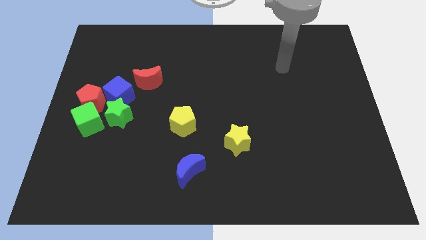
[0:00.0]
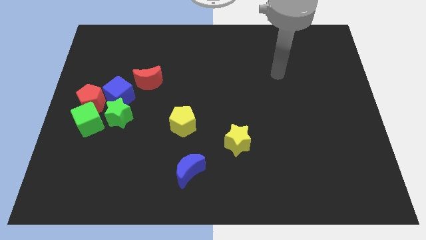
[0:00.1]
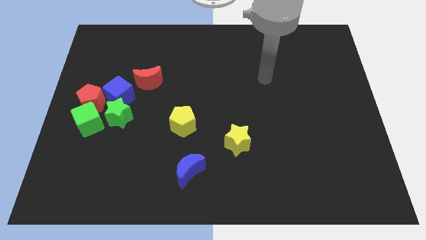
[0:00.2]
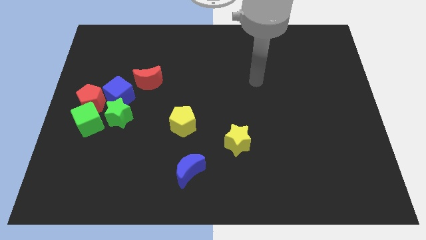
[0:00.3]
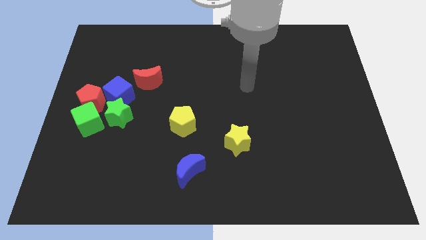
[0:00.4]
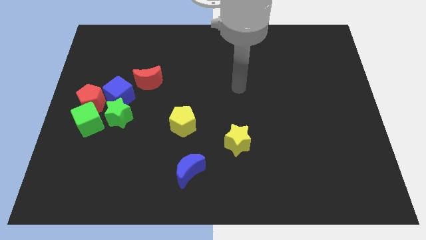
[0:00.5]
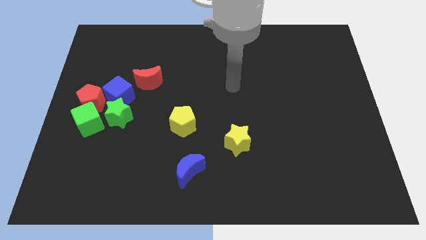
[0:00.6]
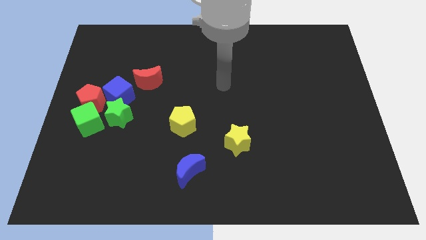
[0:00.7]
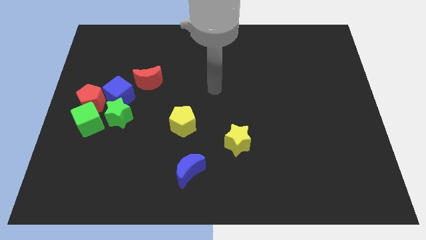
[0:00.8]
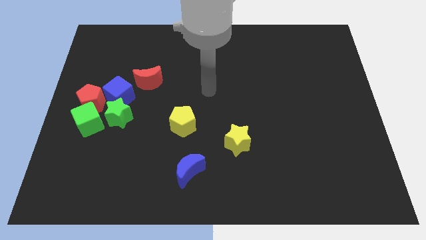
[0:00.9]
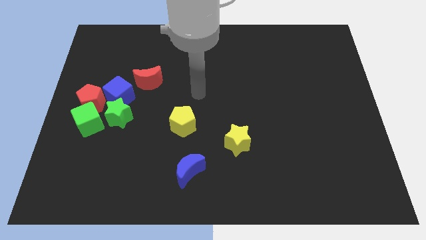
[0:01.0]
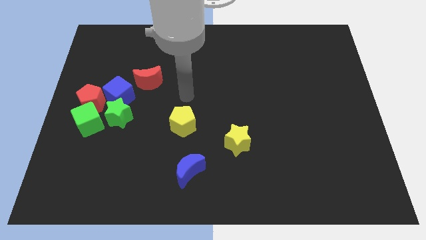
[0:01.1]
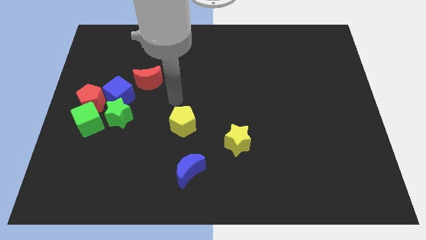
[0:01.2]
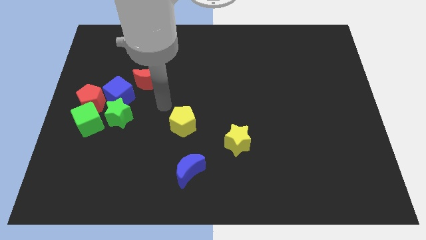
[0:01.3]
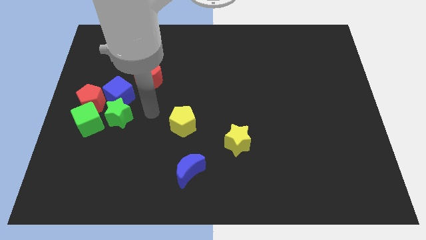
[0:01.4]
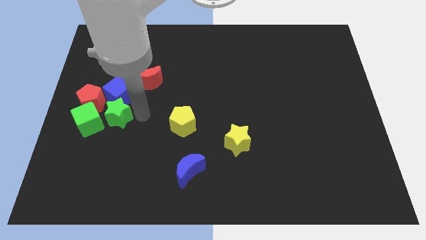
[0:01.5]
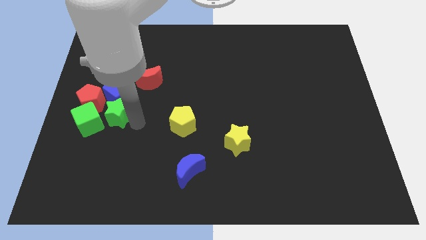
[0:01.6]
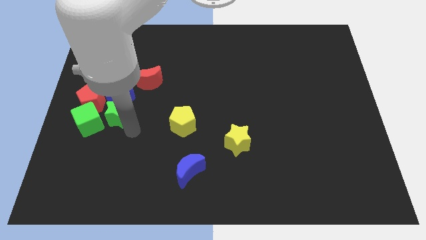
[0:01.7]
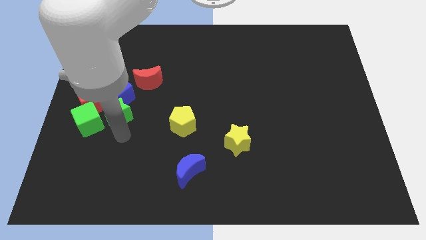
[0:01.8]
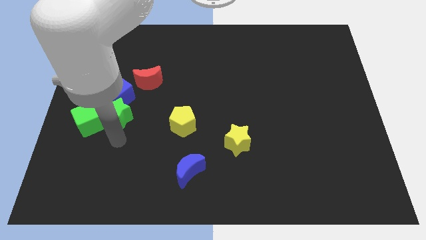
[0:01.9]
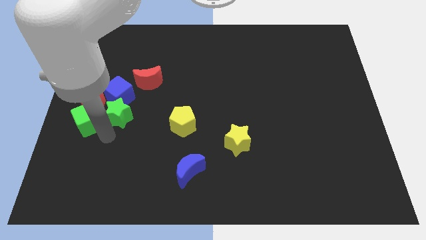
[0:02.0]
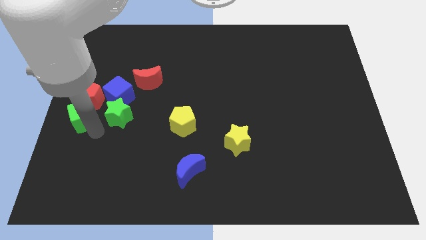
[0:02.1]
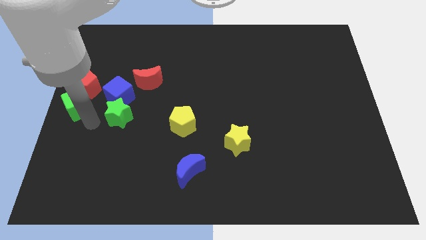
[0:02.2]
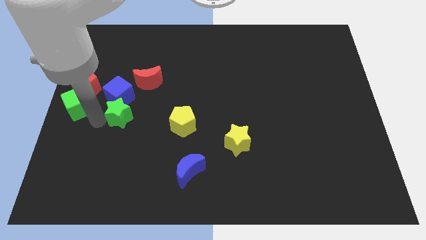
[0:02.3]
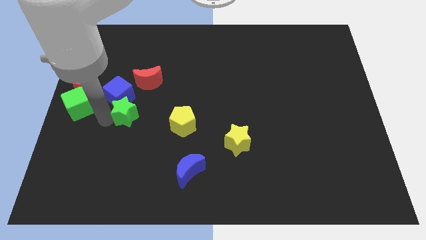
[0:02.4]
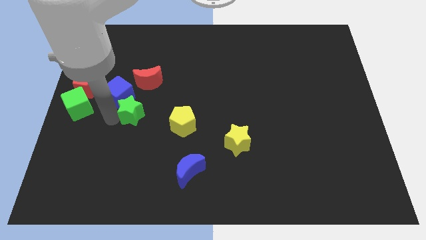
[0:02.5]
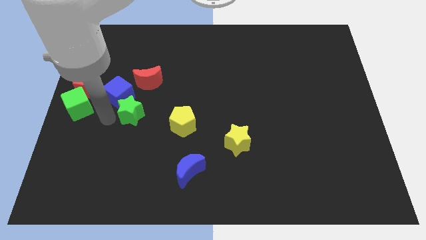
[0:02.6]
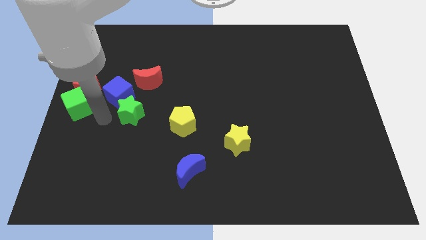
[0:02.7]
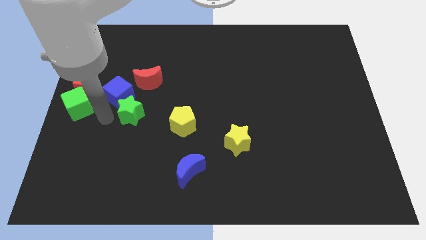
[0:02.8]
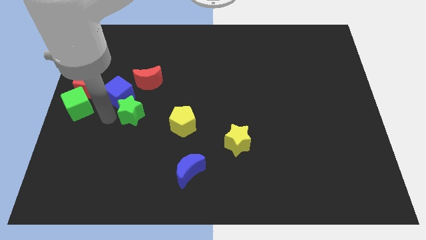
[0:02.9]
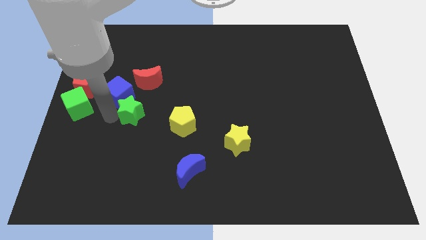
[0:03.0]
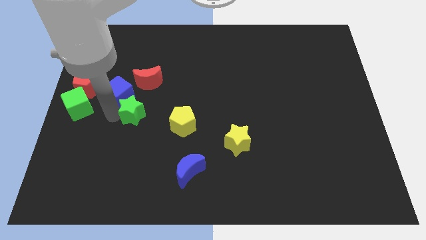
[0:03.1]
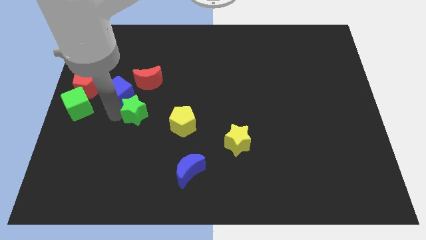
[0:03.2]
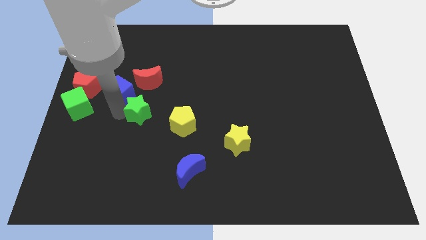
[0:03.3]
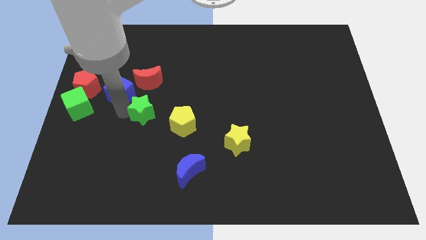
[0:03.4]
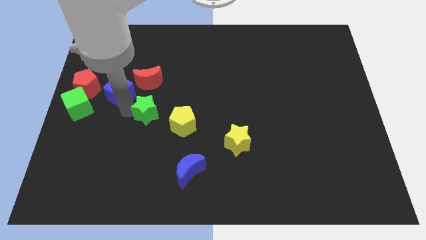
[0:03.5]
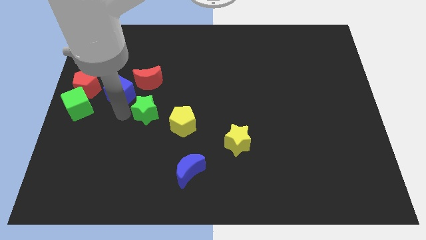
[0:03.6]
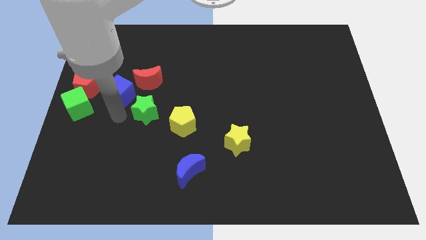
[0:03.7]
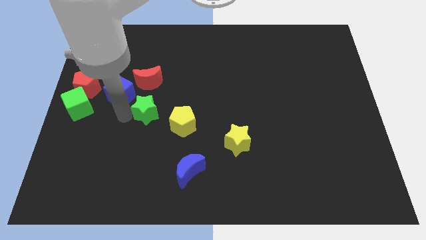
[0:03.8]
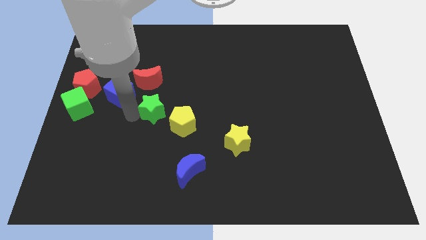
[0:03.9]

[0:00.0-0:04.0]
slightly push the green star to the right

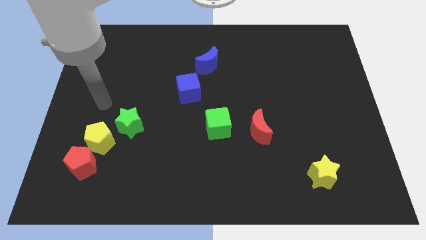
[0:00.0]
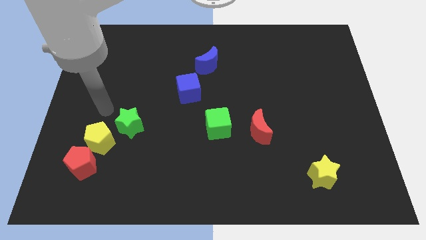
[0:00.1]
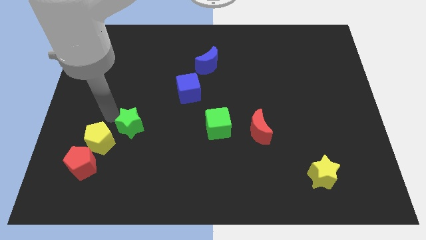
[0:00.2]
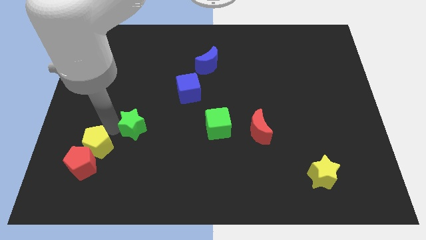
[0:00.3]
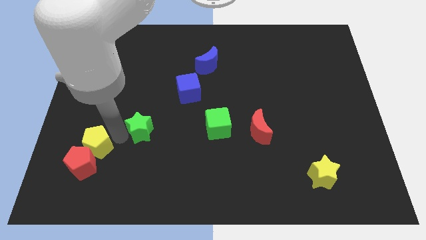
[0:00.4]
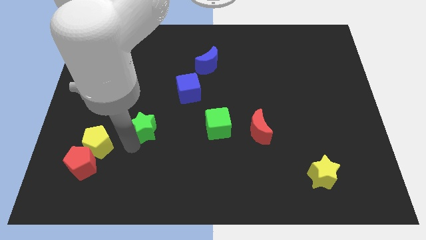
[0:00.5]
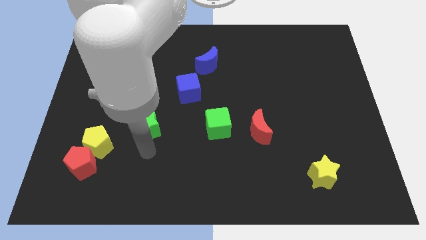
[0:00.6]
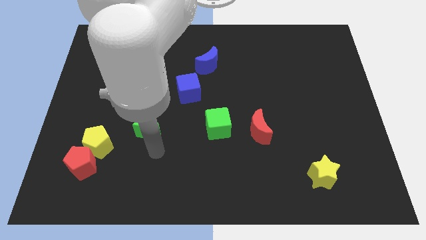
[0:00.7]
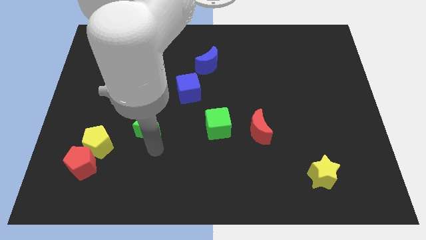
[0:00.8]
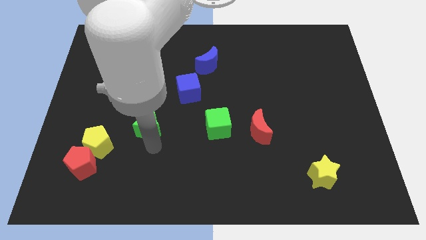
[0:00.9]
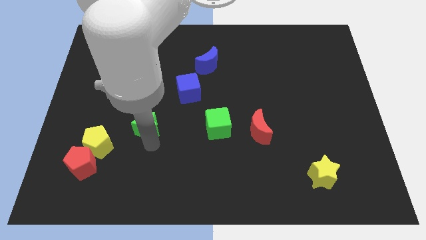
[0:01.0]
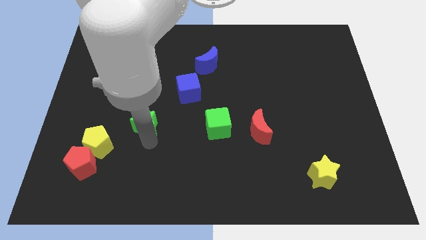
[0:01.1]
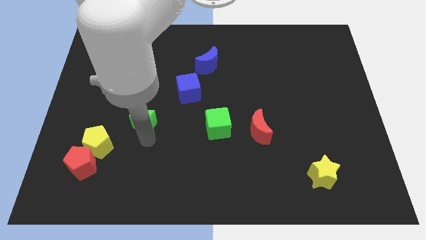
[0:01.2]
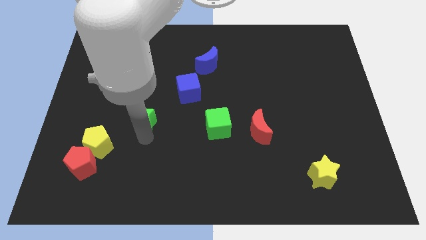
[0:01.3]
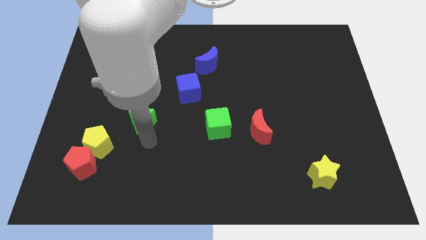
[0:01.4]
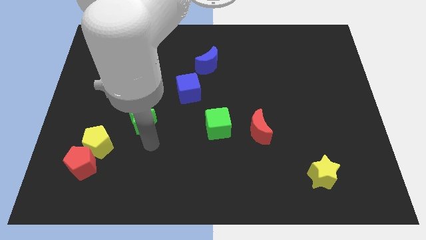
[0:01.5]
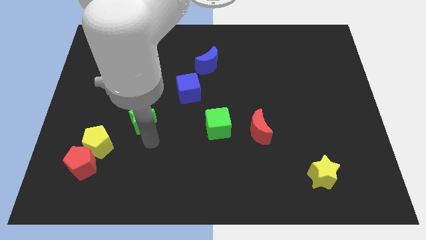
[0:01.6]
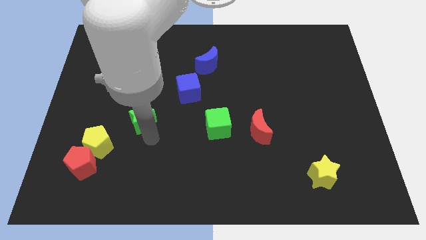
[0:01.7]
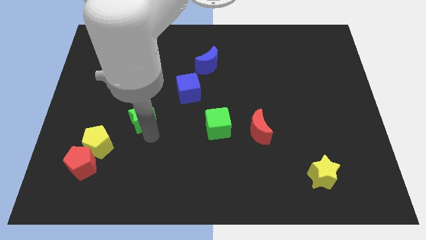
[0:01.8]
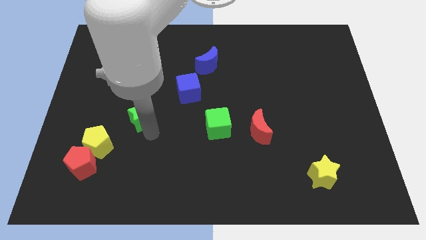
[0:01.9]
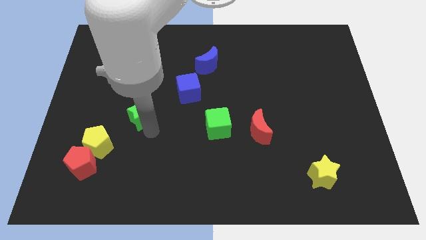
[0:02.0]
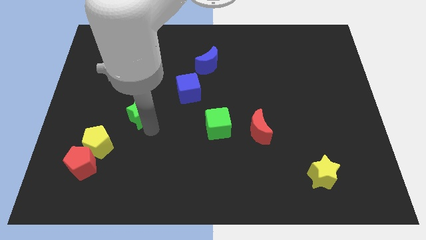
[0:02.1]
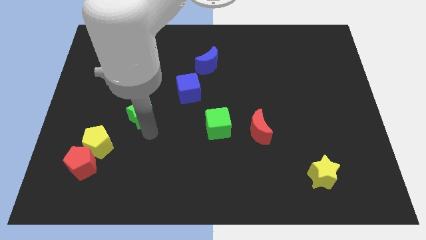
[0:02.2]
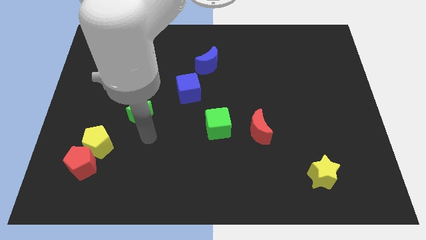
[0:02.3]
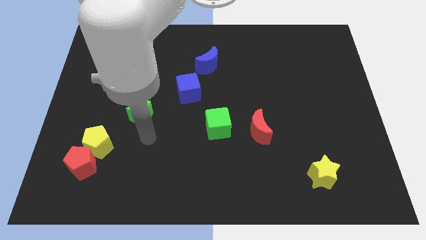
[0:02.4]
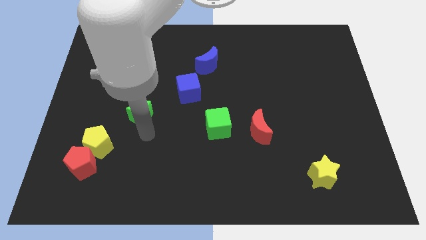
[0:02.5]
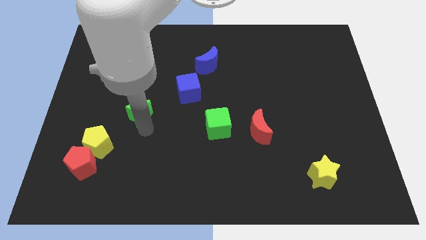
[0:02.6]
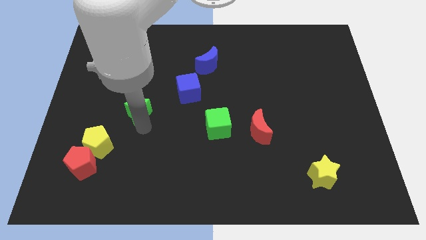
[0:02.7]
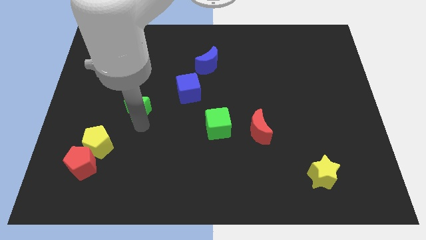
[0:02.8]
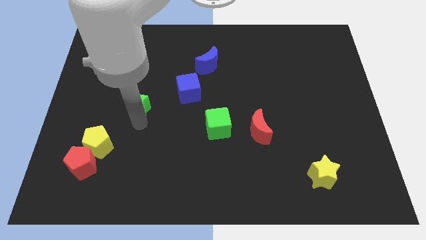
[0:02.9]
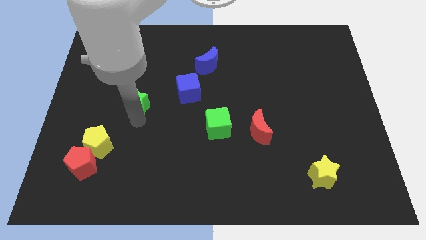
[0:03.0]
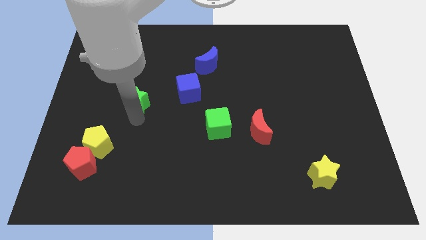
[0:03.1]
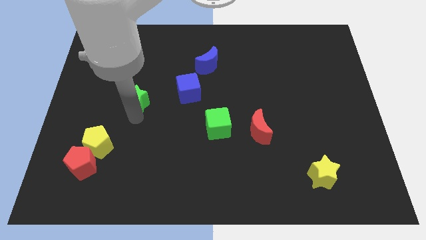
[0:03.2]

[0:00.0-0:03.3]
slide the green star upwards a little

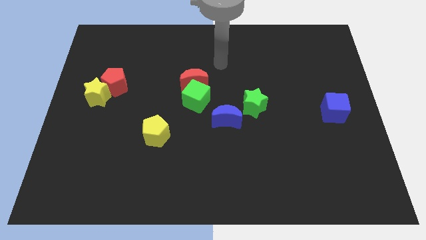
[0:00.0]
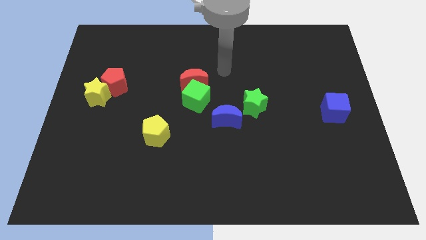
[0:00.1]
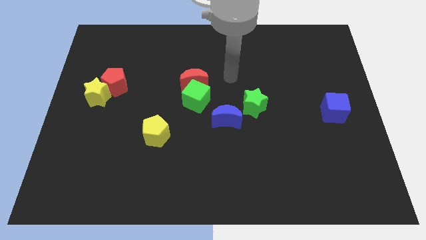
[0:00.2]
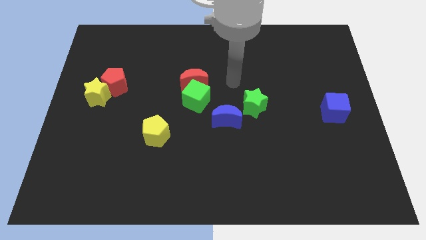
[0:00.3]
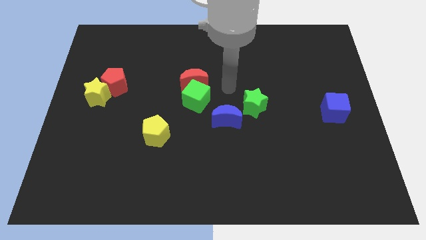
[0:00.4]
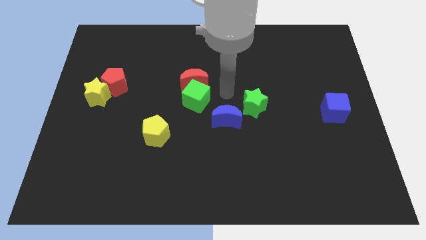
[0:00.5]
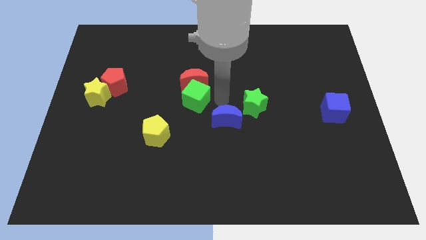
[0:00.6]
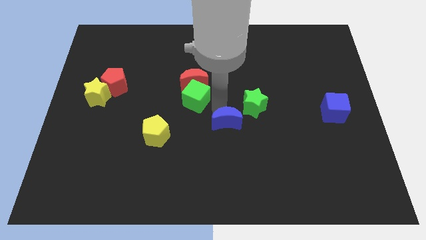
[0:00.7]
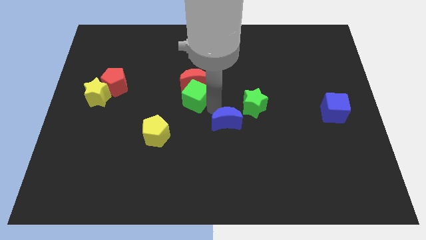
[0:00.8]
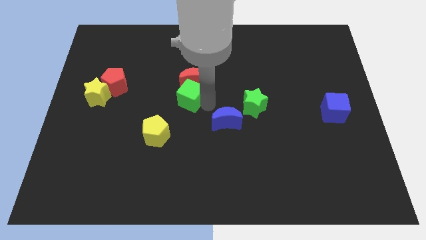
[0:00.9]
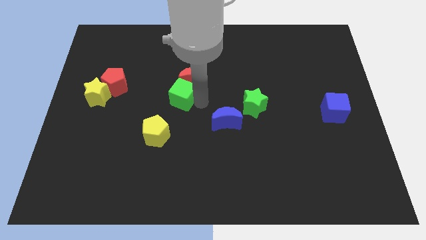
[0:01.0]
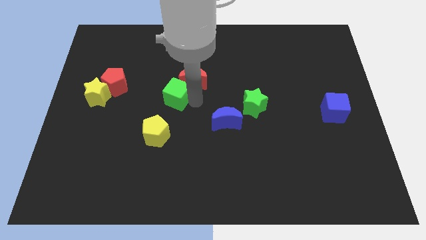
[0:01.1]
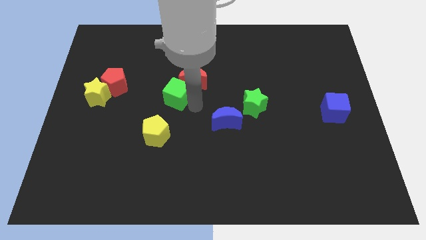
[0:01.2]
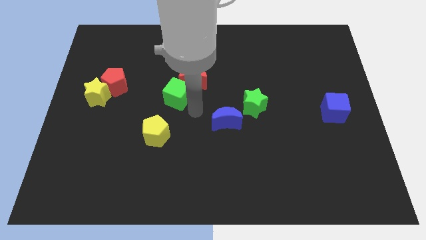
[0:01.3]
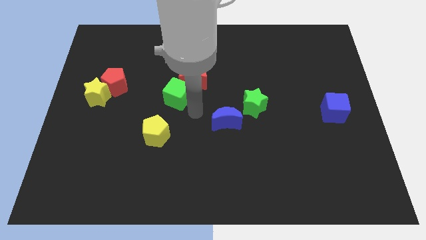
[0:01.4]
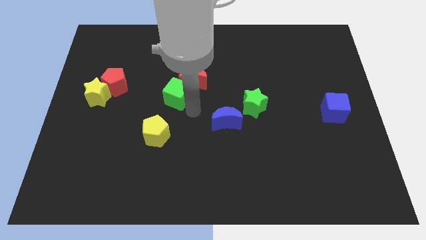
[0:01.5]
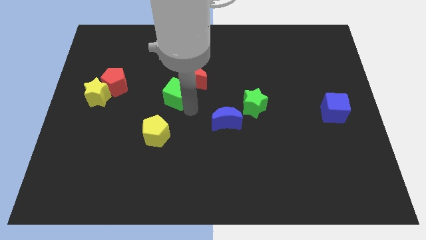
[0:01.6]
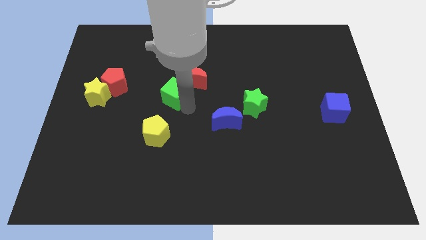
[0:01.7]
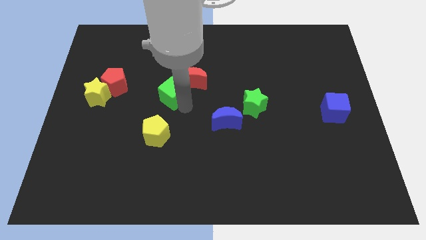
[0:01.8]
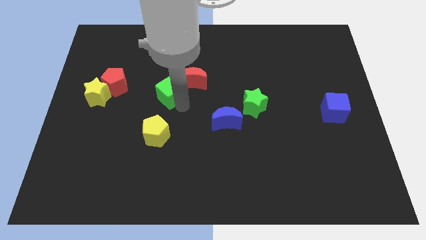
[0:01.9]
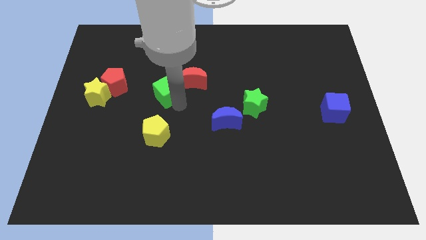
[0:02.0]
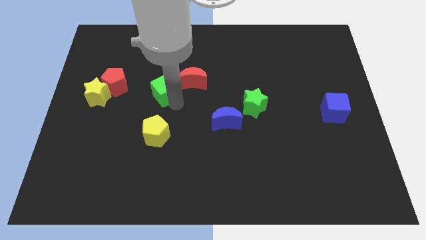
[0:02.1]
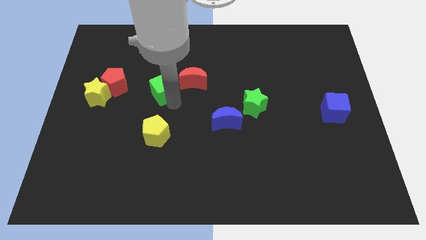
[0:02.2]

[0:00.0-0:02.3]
push the green cube upwards and left diagonally a little bit
